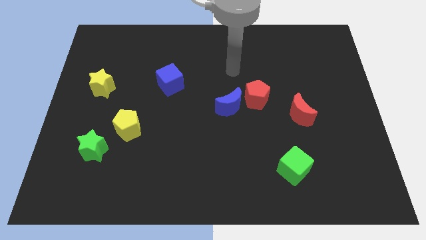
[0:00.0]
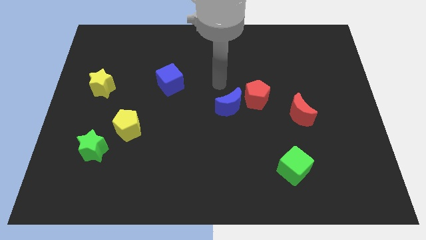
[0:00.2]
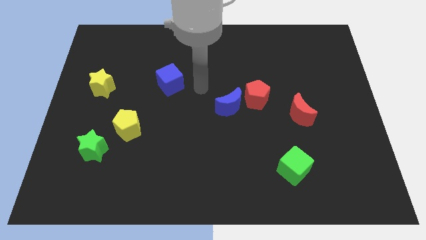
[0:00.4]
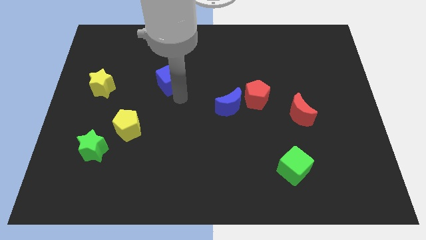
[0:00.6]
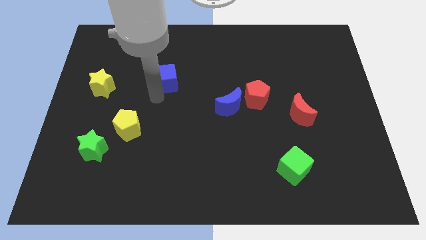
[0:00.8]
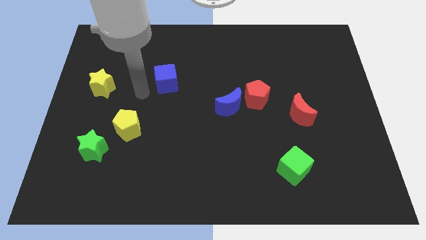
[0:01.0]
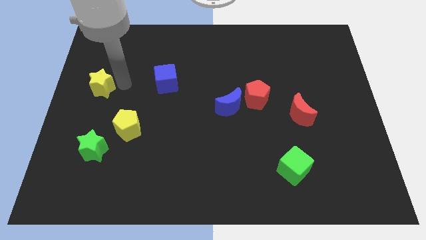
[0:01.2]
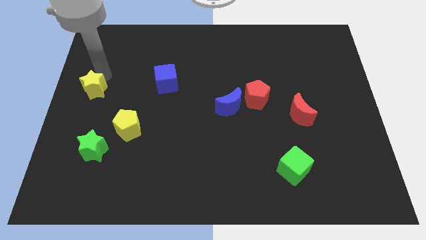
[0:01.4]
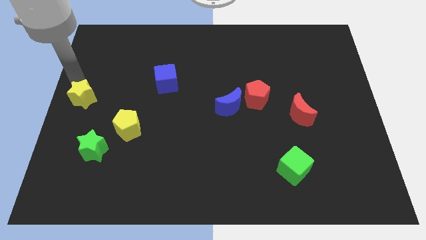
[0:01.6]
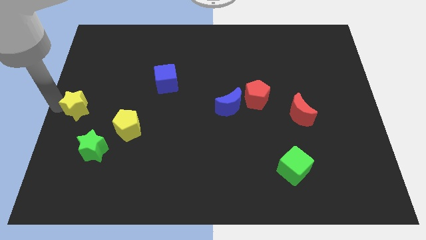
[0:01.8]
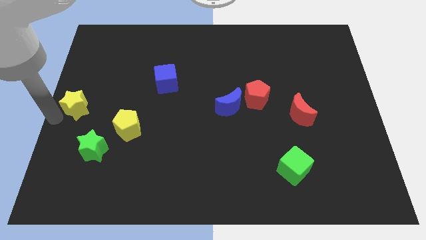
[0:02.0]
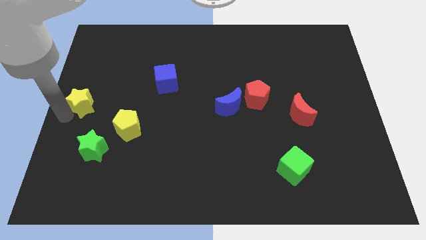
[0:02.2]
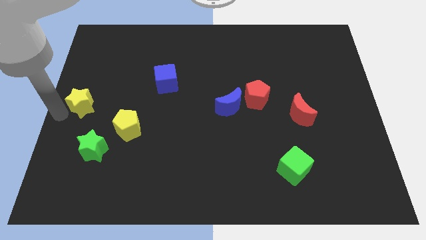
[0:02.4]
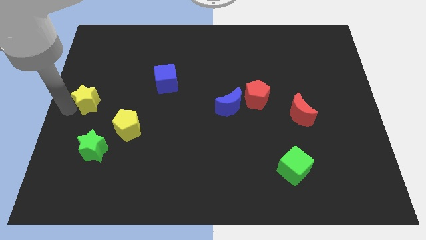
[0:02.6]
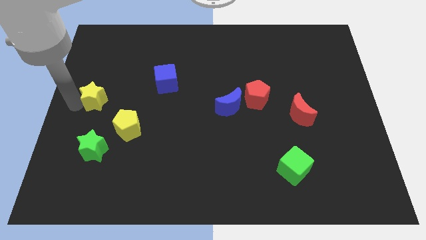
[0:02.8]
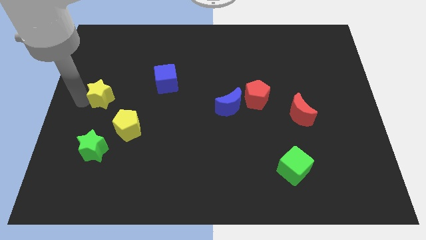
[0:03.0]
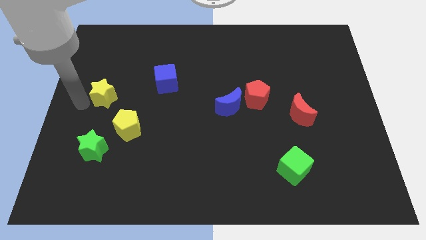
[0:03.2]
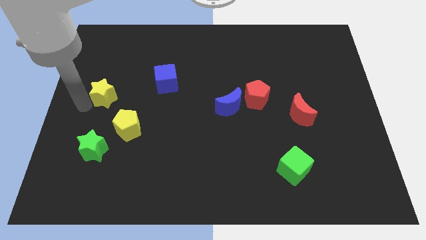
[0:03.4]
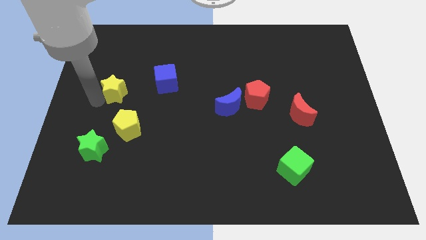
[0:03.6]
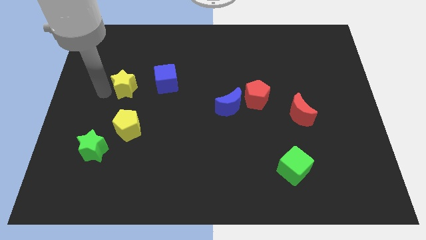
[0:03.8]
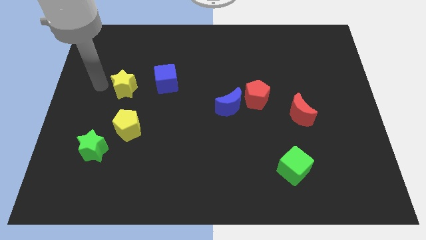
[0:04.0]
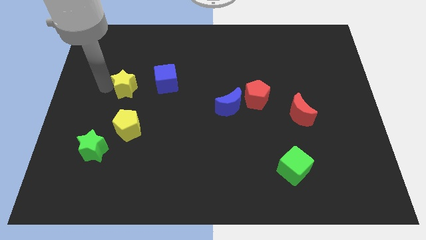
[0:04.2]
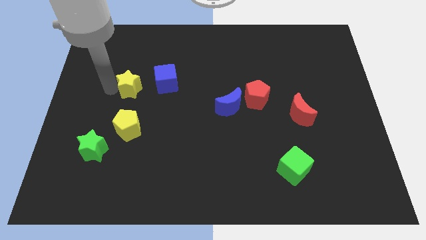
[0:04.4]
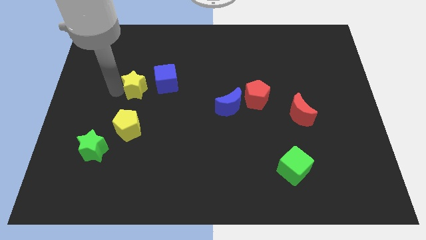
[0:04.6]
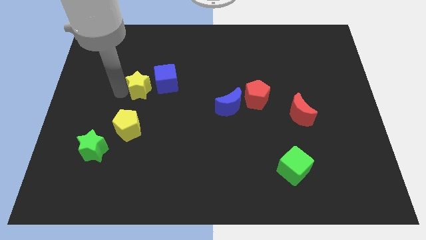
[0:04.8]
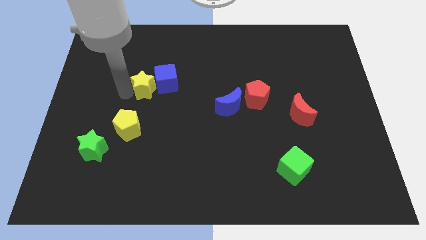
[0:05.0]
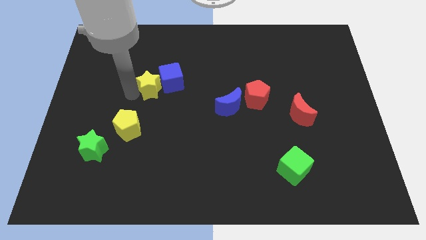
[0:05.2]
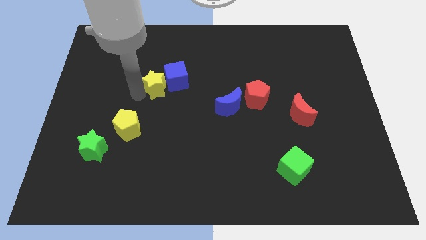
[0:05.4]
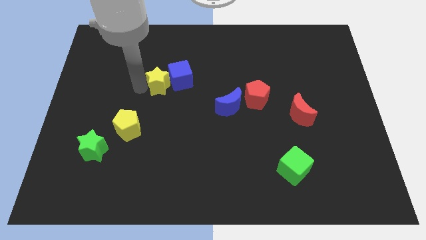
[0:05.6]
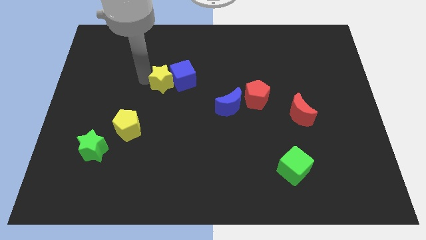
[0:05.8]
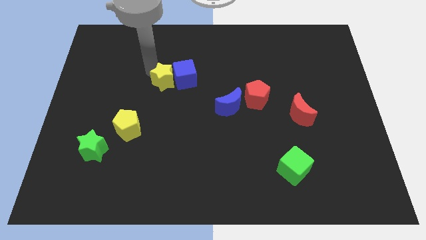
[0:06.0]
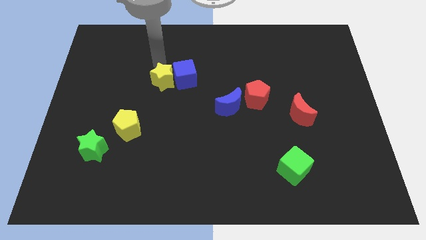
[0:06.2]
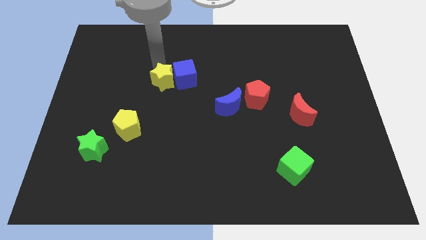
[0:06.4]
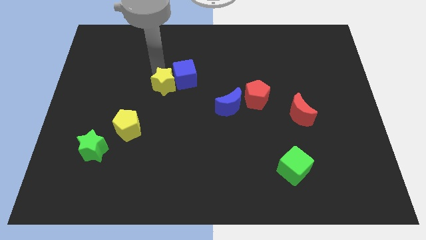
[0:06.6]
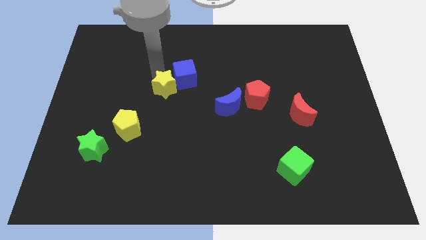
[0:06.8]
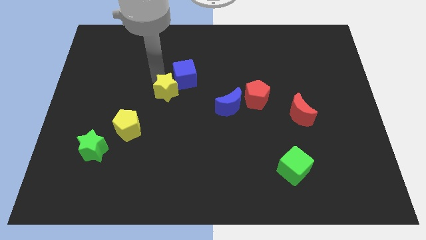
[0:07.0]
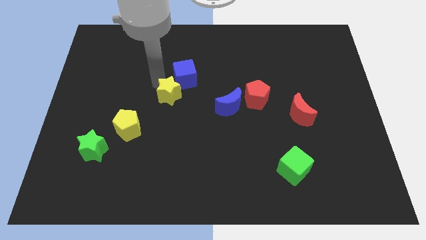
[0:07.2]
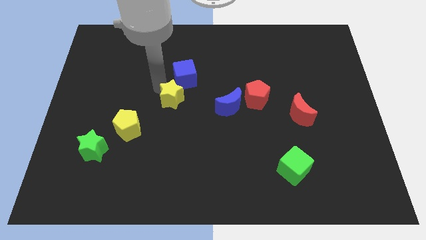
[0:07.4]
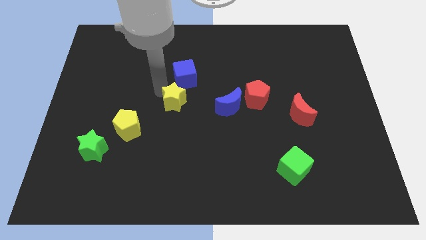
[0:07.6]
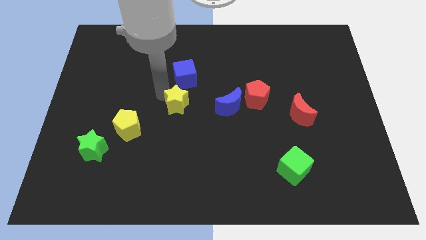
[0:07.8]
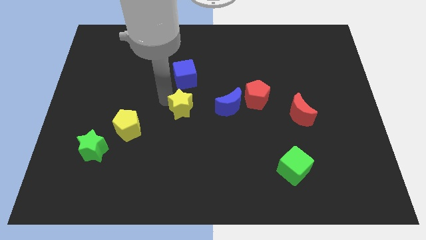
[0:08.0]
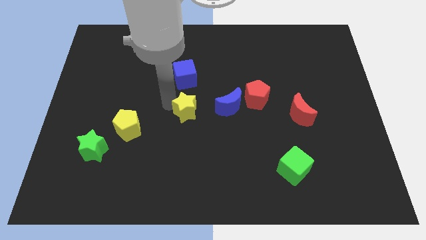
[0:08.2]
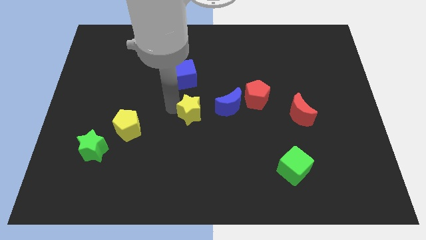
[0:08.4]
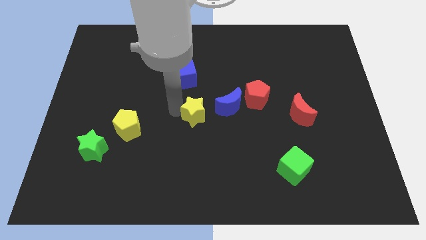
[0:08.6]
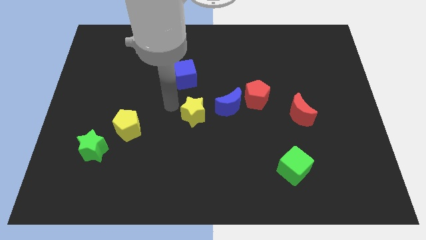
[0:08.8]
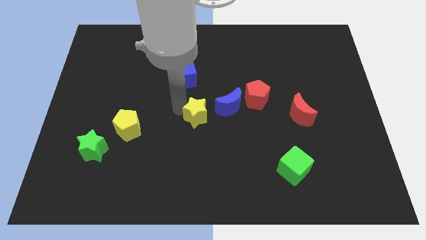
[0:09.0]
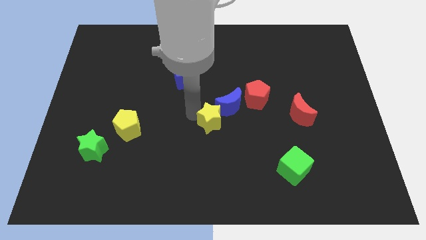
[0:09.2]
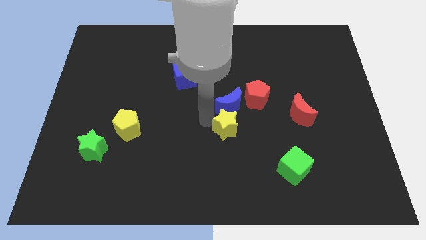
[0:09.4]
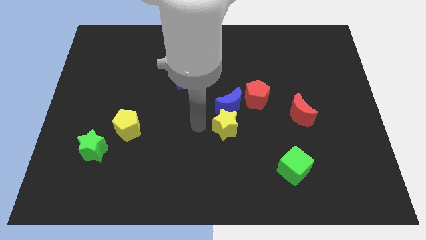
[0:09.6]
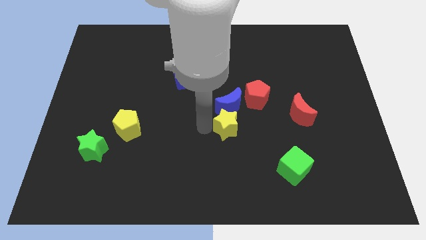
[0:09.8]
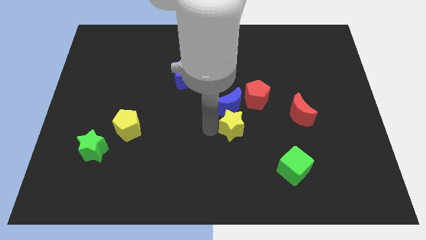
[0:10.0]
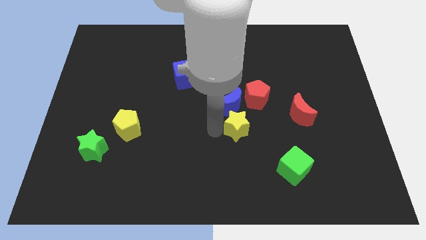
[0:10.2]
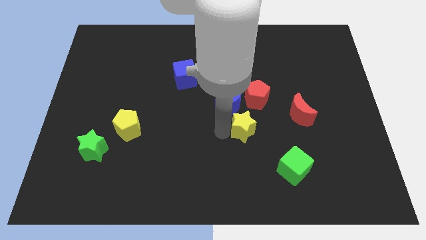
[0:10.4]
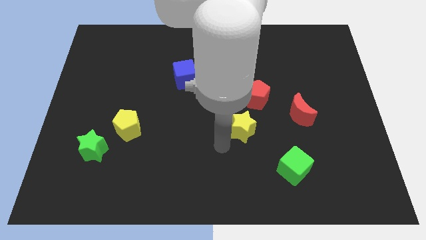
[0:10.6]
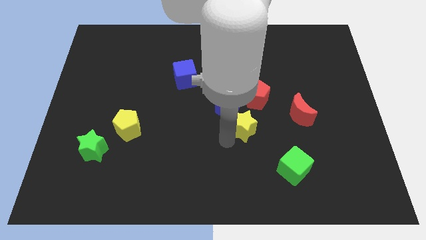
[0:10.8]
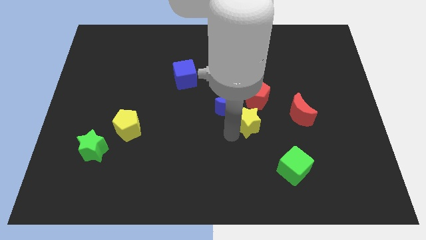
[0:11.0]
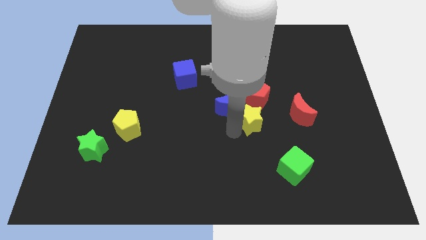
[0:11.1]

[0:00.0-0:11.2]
move the yellow star right of the blue moon
